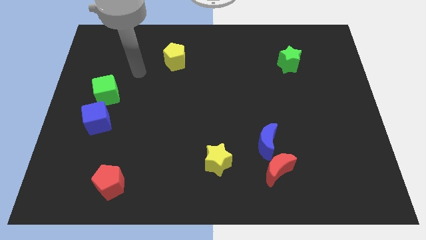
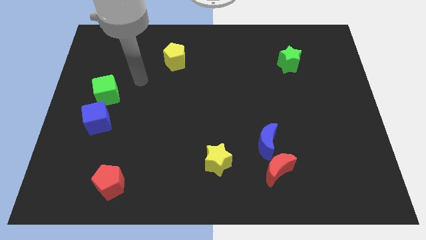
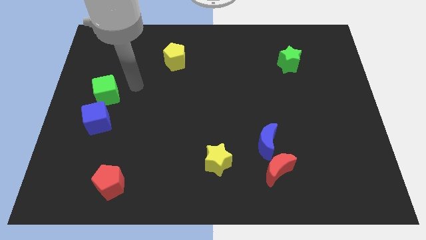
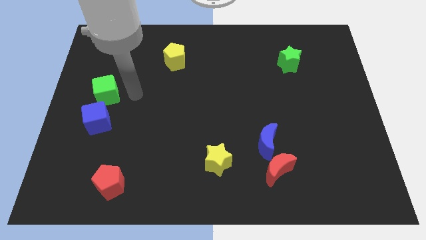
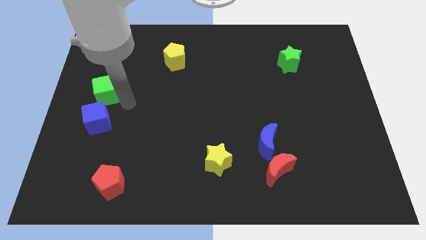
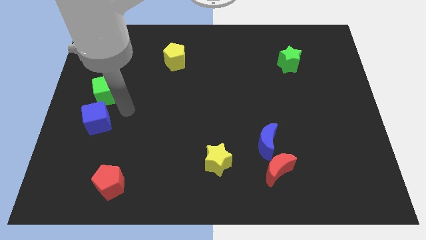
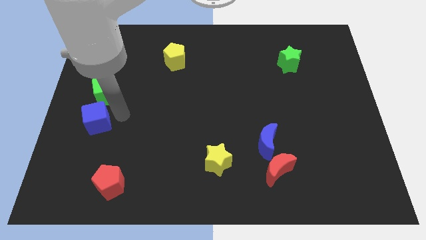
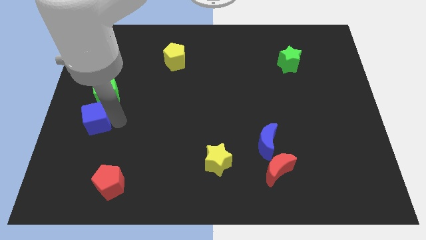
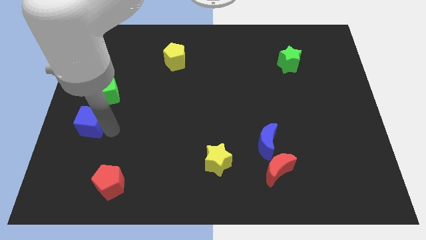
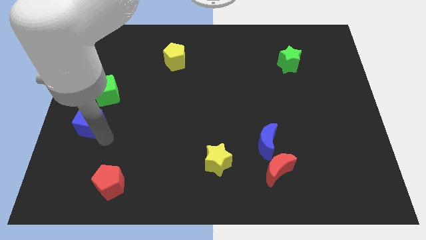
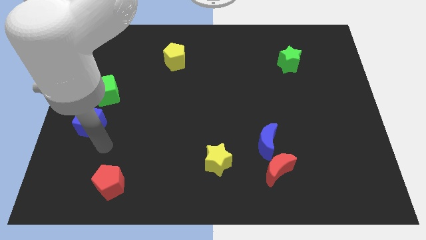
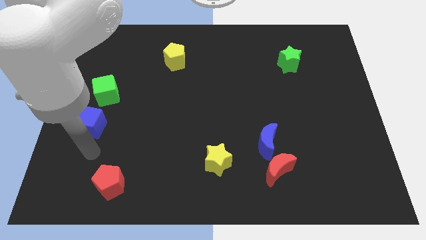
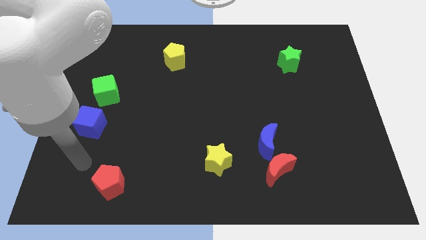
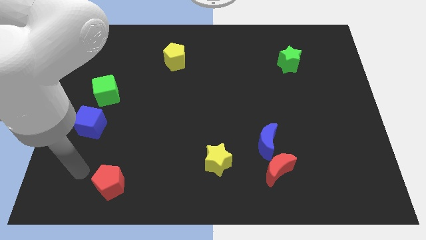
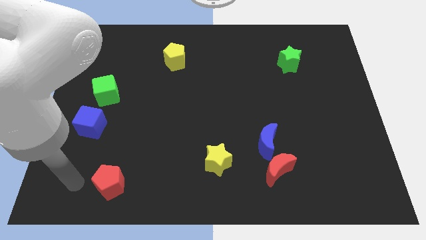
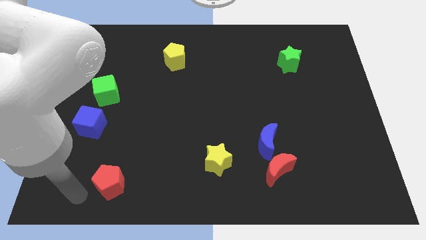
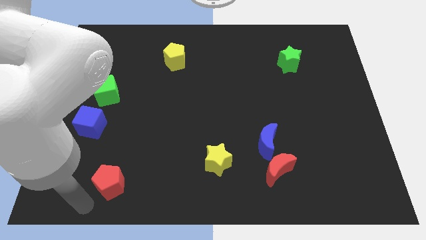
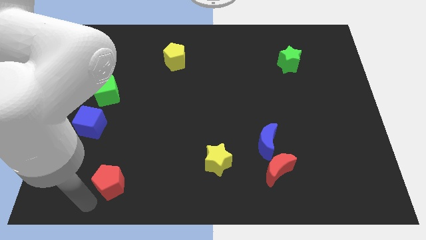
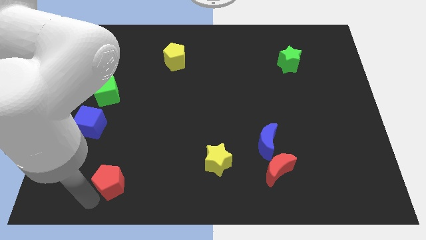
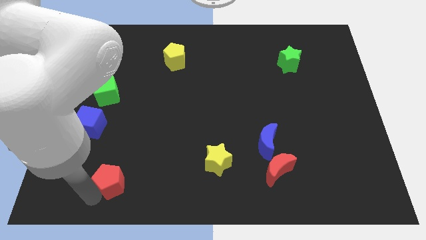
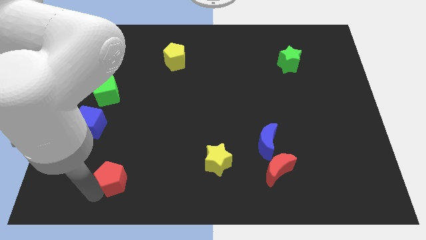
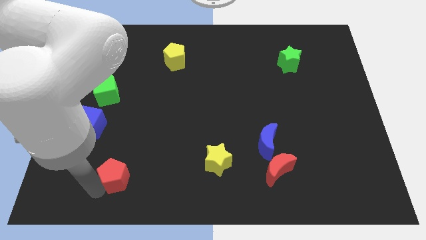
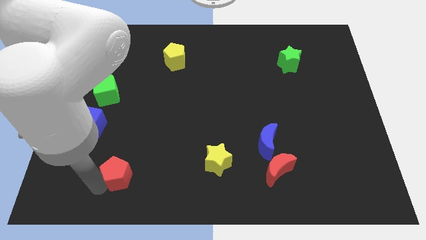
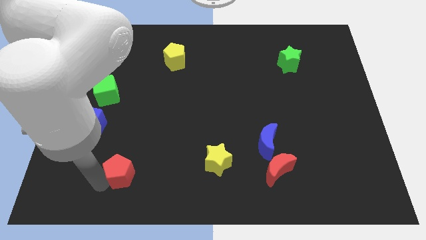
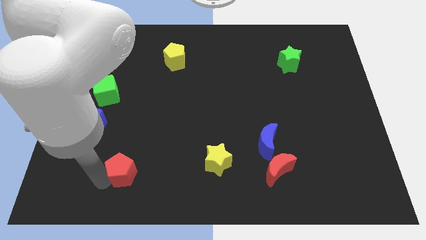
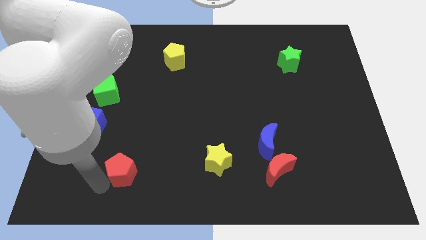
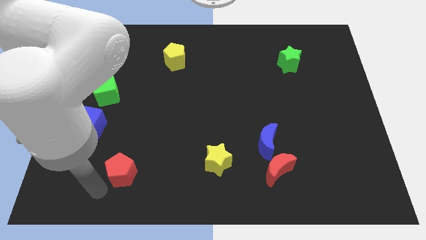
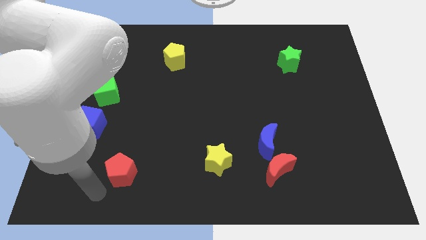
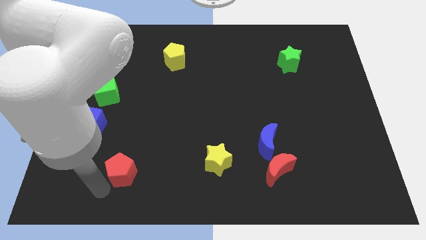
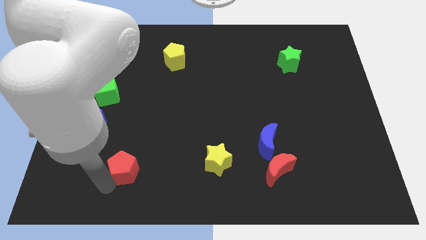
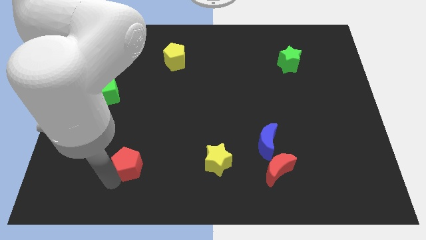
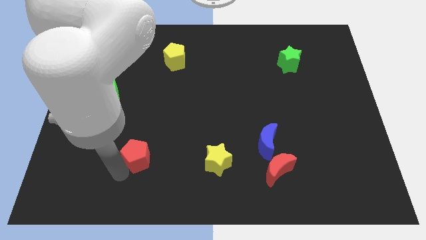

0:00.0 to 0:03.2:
move the red pentagon somewhat up and right diagonally

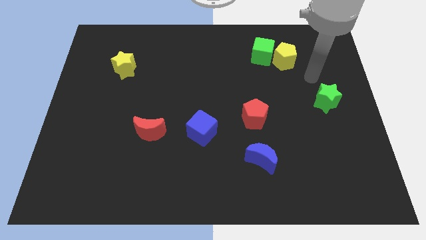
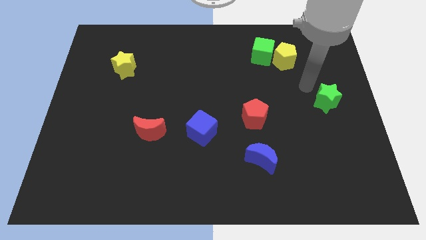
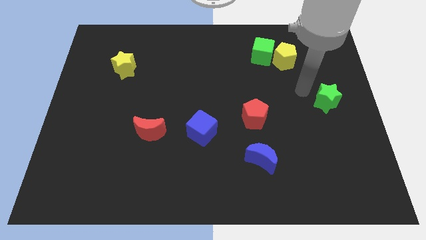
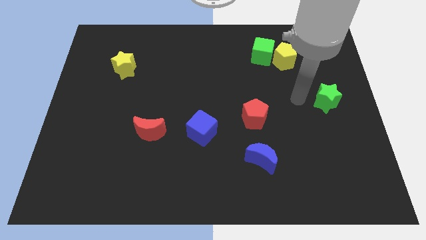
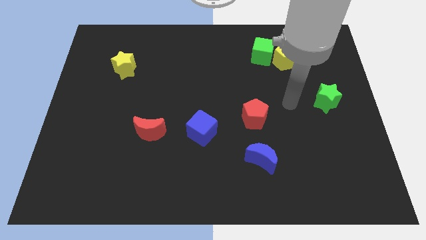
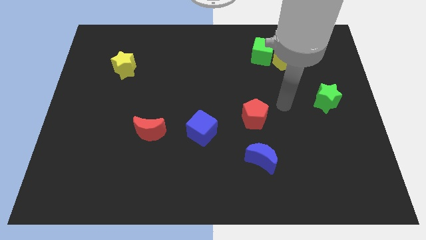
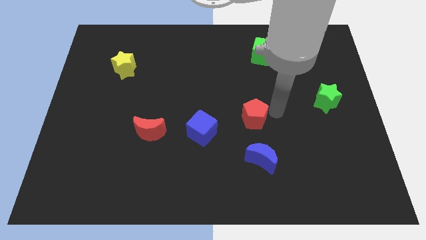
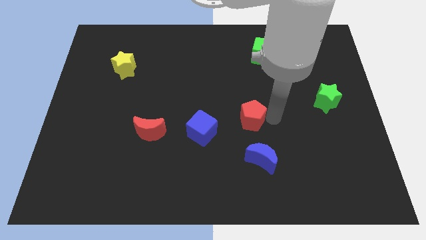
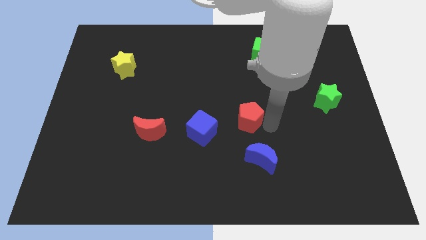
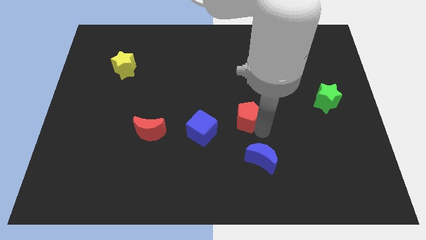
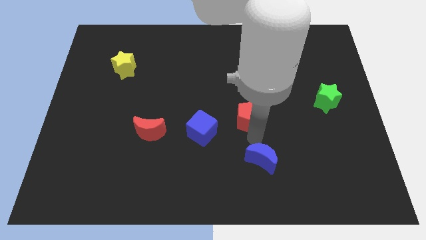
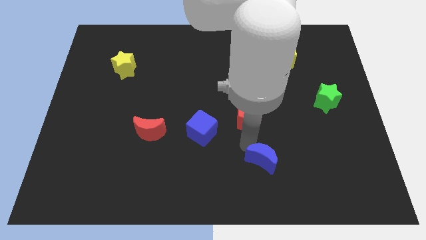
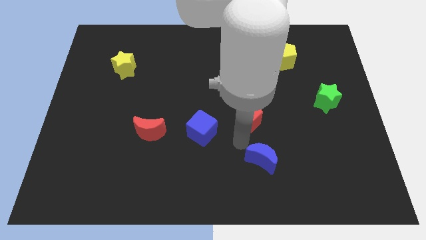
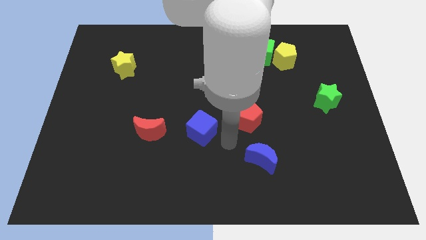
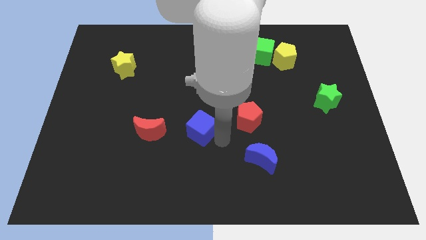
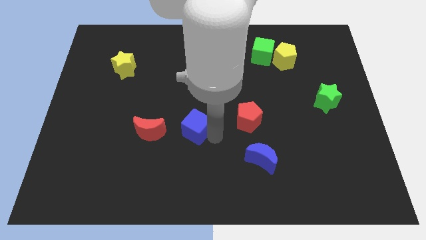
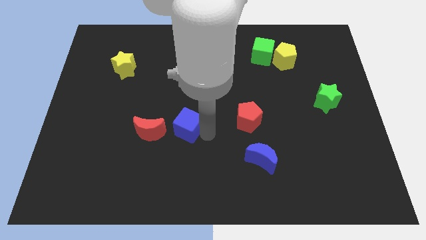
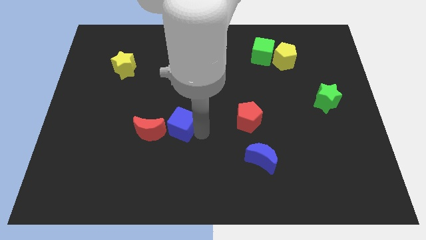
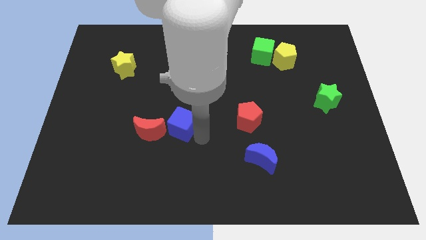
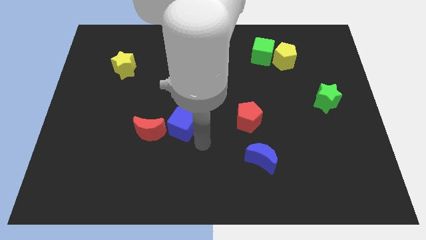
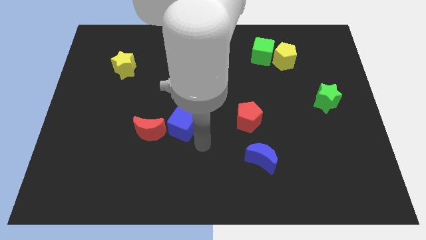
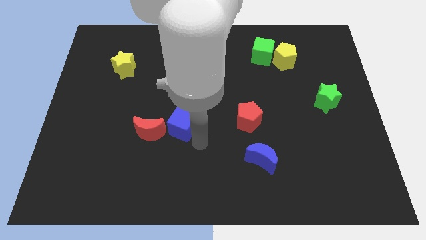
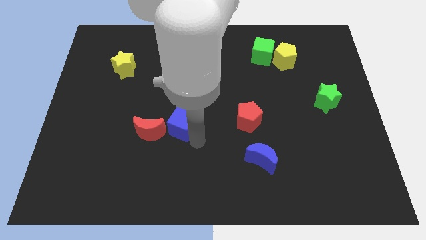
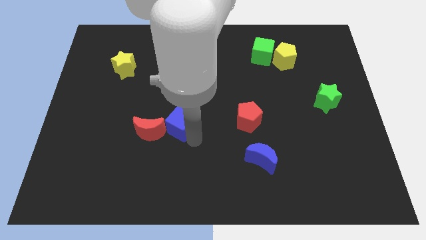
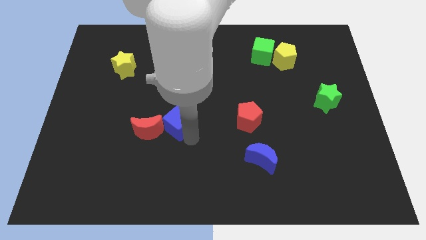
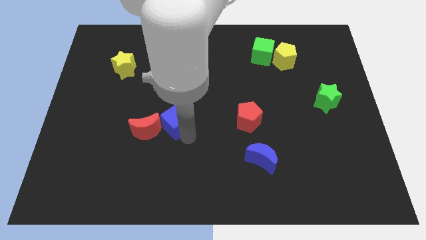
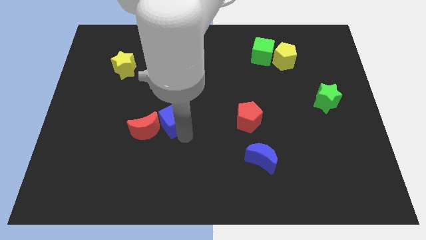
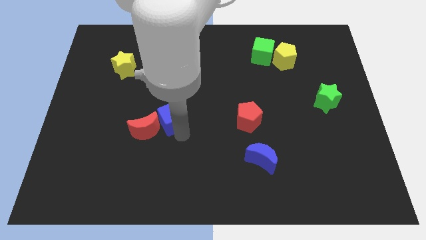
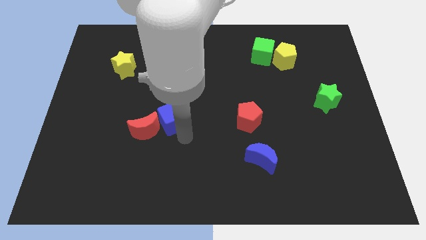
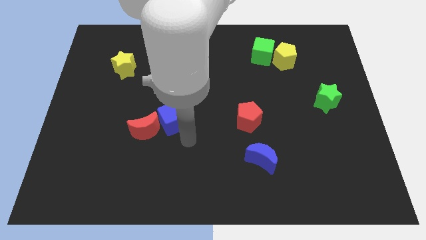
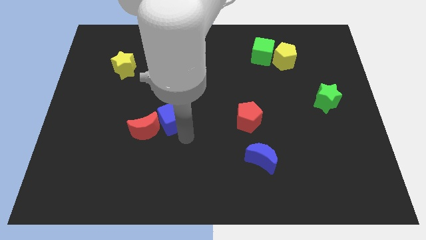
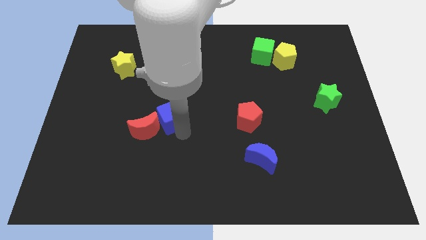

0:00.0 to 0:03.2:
slide the blue cube a little diagonally upwards and left

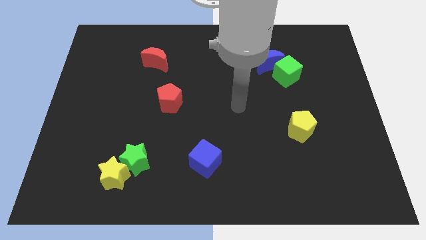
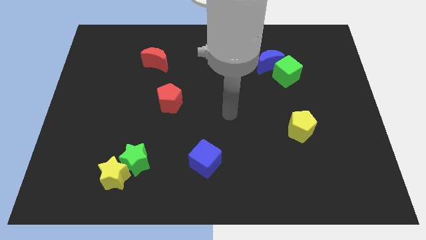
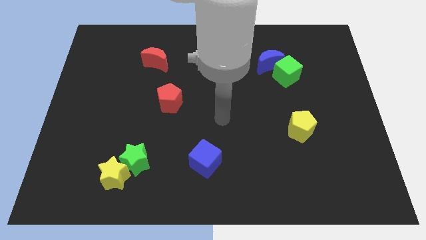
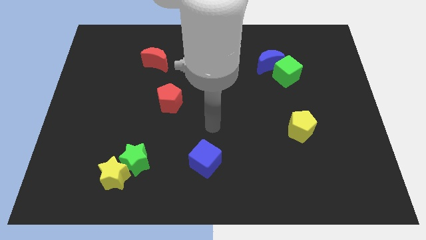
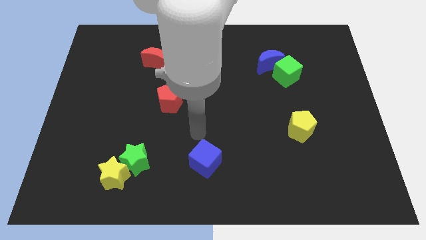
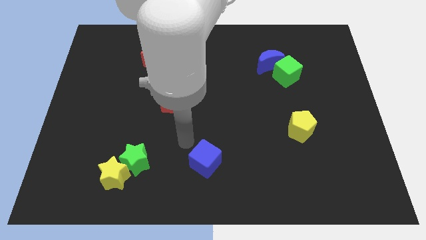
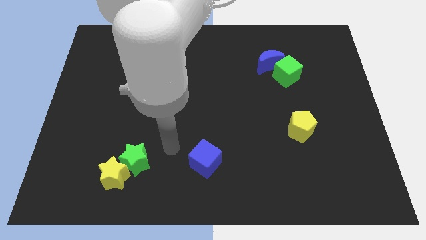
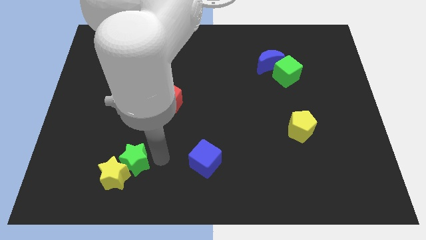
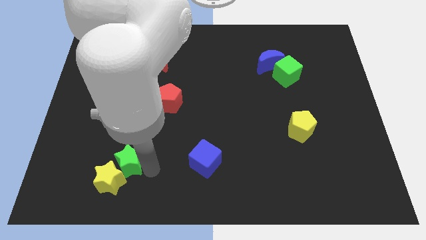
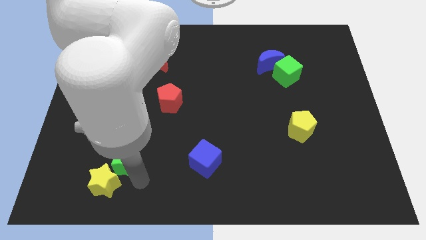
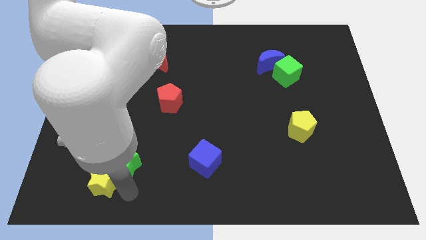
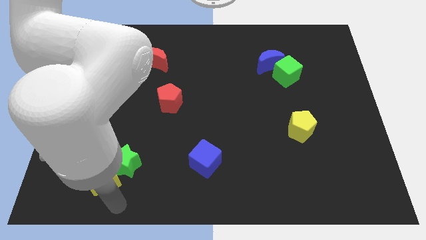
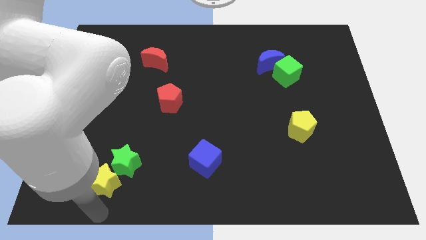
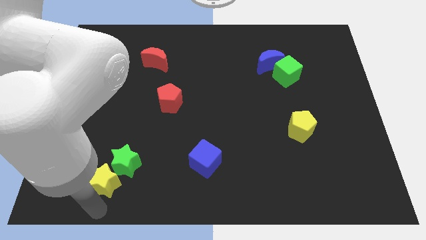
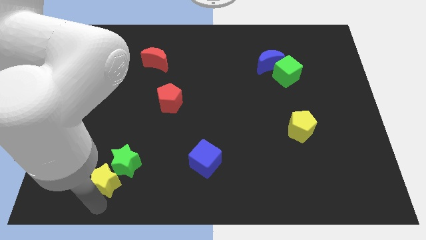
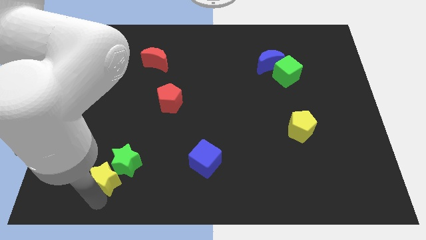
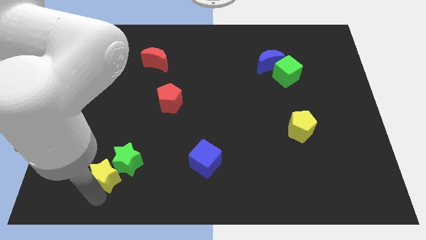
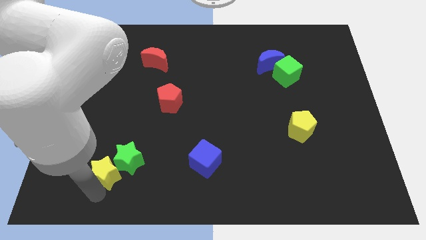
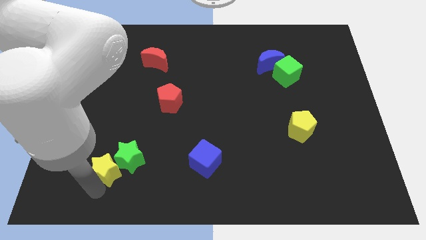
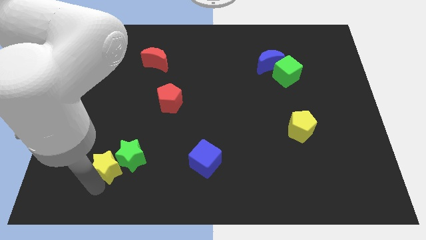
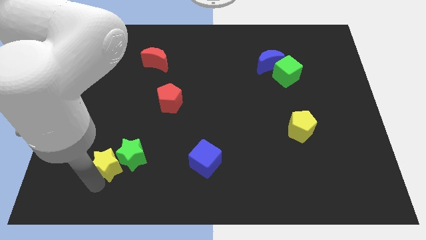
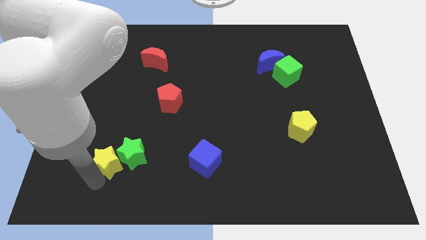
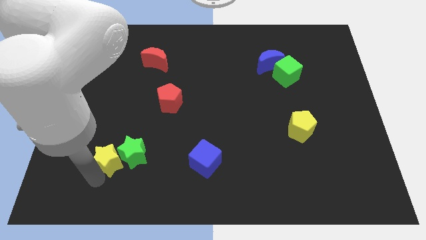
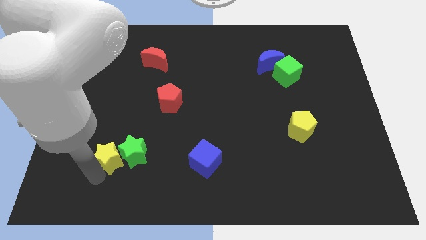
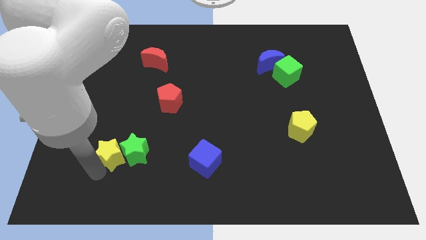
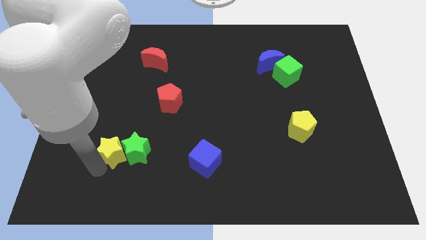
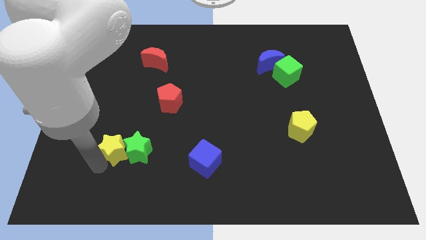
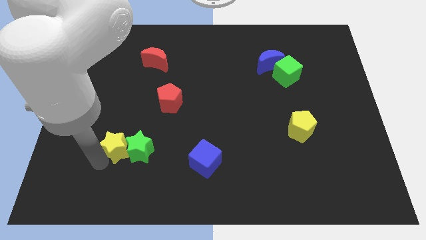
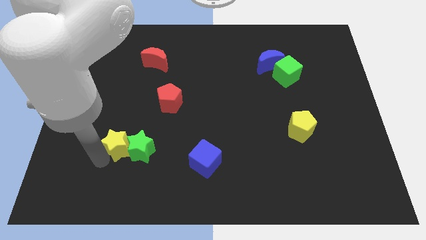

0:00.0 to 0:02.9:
slightly move the yellow star up
